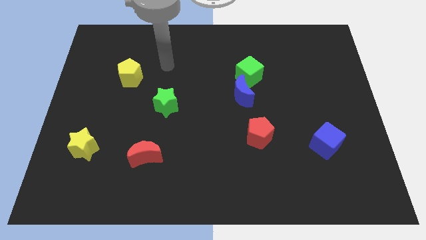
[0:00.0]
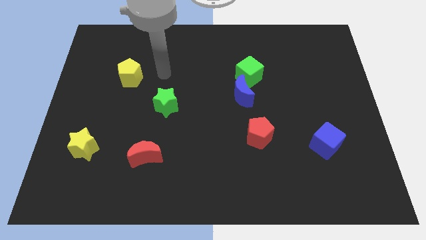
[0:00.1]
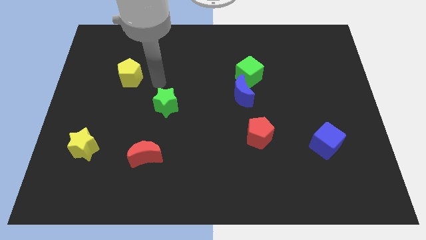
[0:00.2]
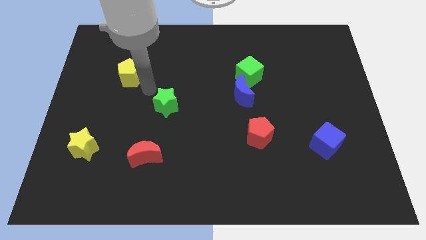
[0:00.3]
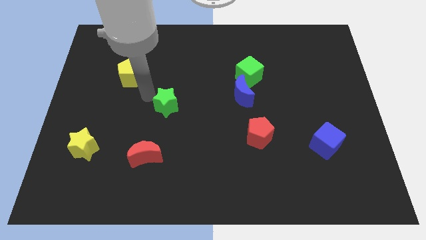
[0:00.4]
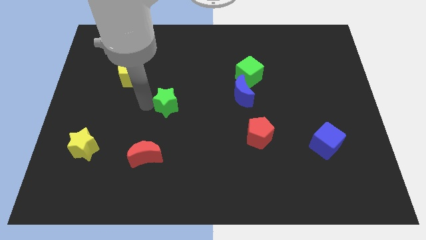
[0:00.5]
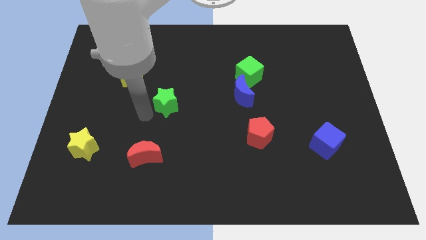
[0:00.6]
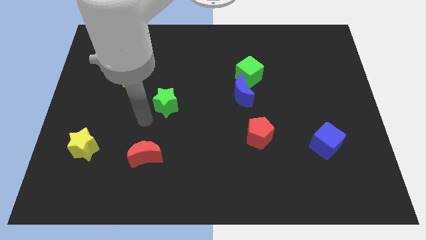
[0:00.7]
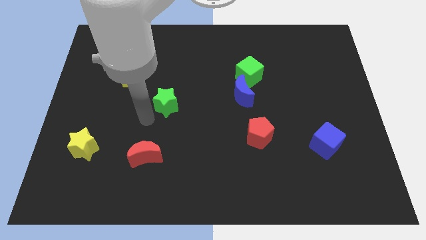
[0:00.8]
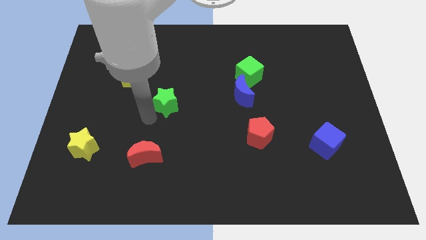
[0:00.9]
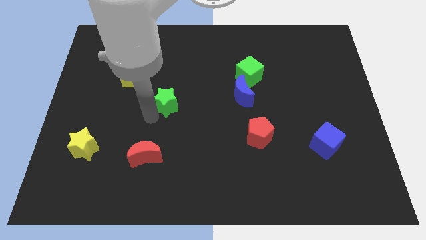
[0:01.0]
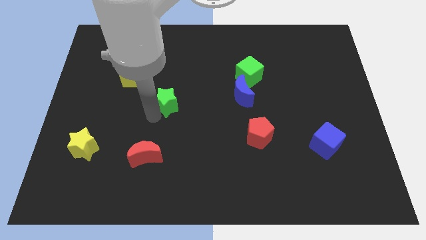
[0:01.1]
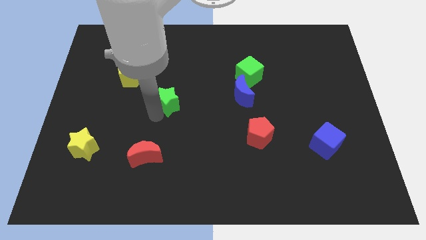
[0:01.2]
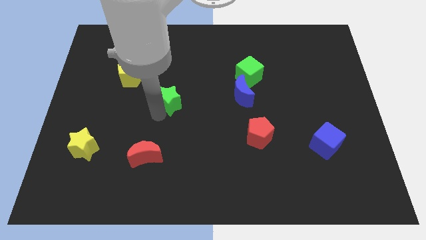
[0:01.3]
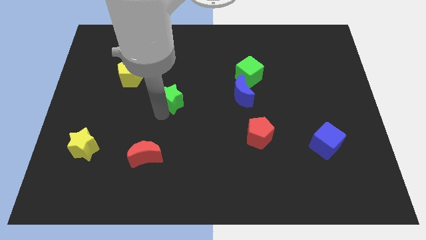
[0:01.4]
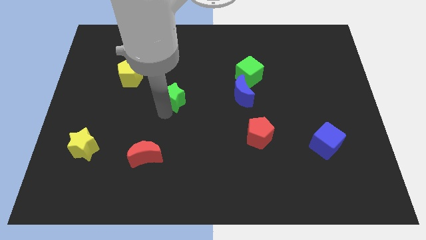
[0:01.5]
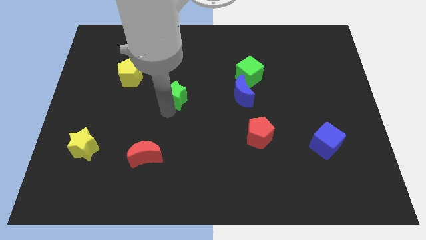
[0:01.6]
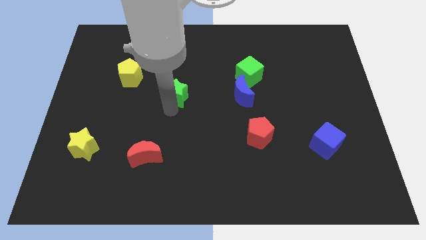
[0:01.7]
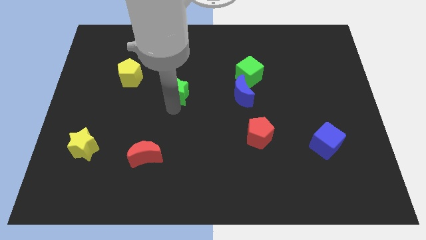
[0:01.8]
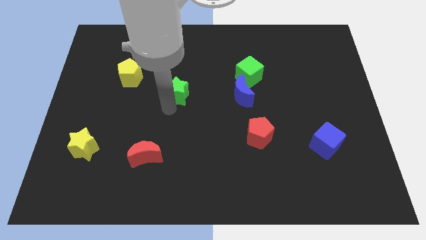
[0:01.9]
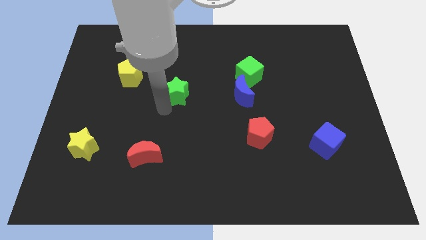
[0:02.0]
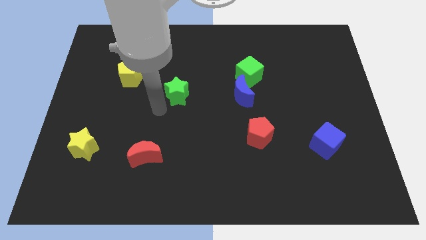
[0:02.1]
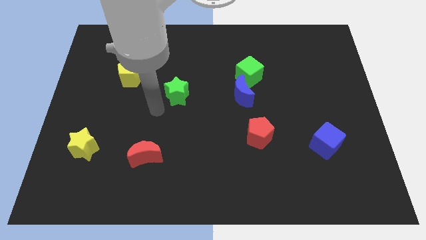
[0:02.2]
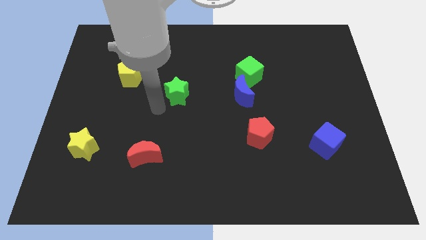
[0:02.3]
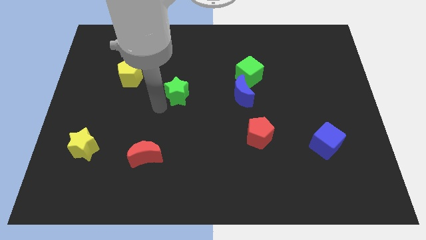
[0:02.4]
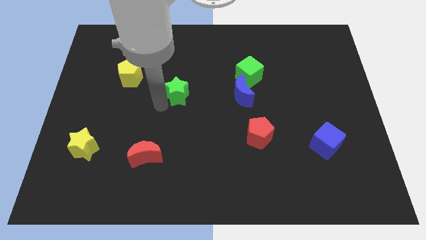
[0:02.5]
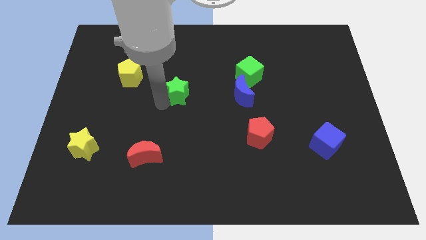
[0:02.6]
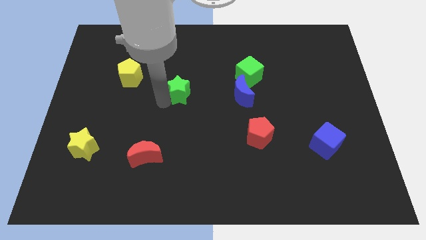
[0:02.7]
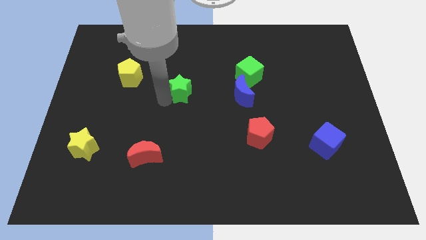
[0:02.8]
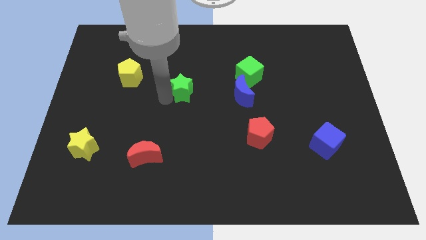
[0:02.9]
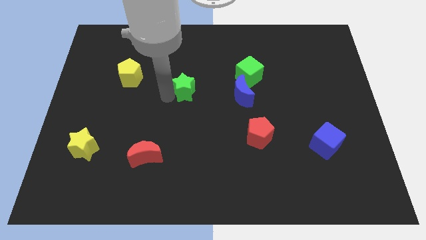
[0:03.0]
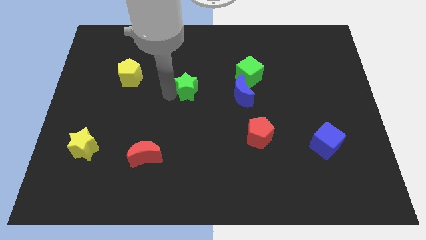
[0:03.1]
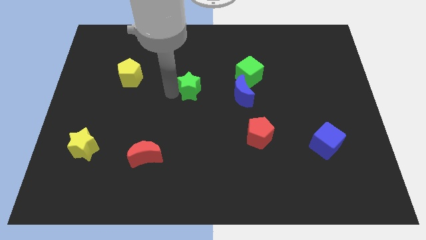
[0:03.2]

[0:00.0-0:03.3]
slide the green star slightly upwards and right diagonally

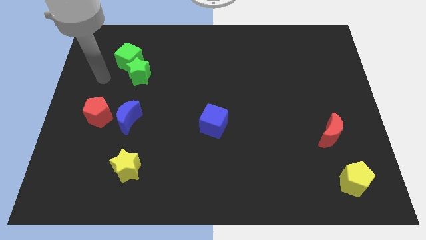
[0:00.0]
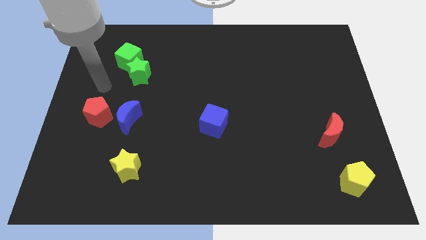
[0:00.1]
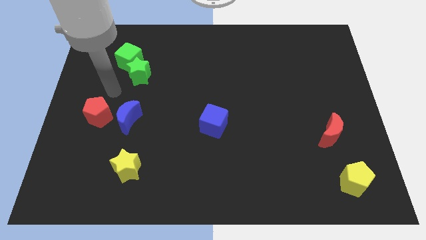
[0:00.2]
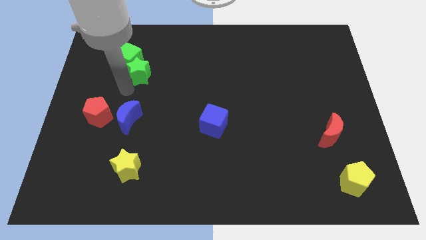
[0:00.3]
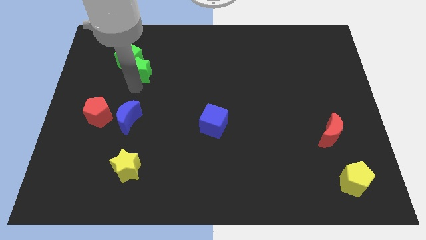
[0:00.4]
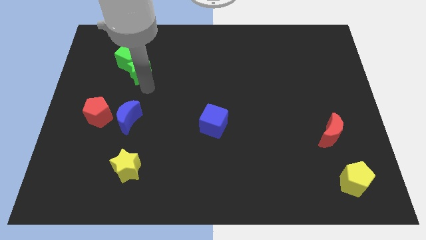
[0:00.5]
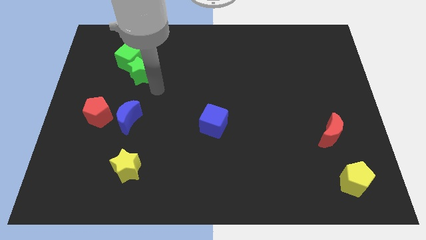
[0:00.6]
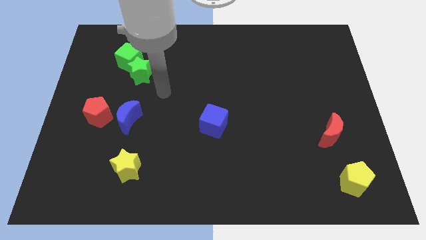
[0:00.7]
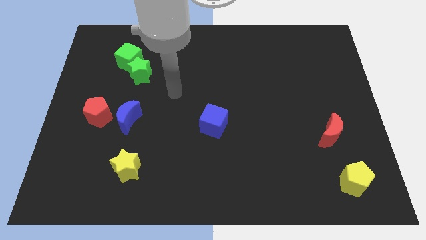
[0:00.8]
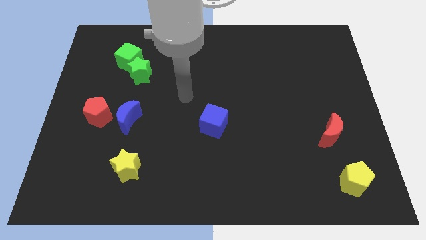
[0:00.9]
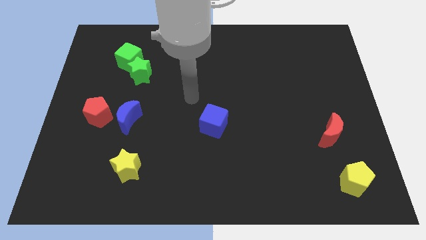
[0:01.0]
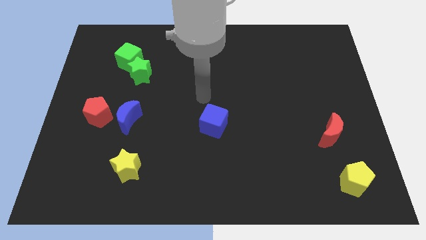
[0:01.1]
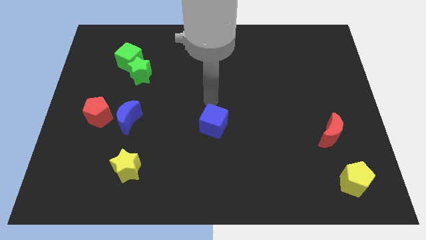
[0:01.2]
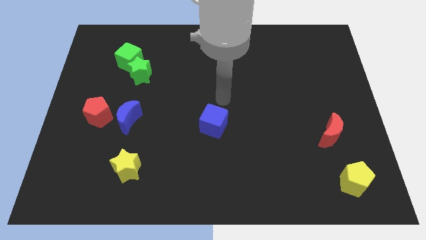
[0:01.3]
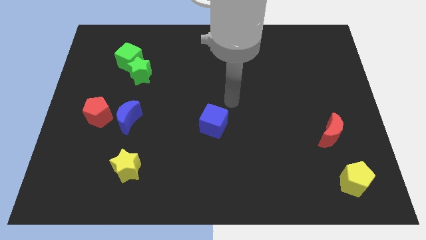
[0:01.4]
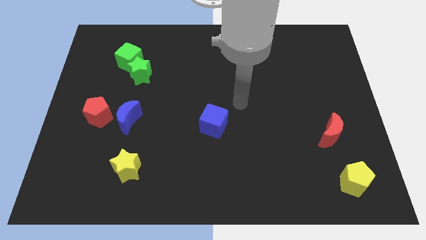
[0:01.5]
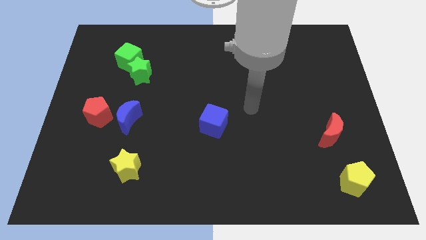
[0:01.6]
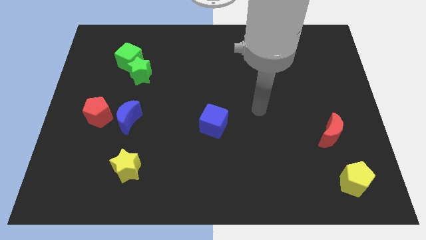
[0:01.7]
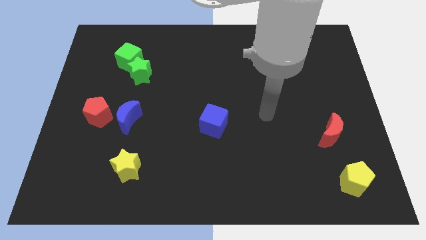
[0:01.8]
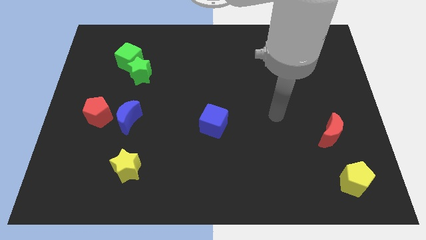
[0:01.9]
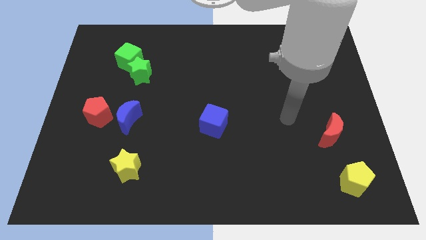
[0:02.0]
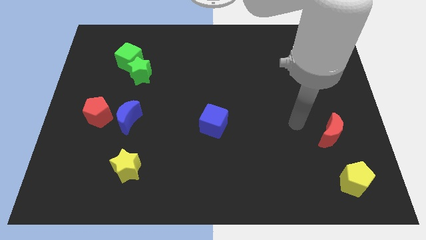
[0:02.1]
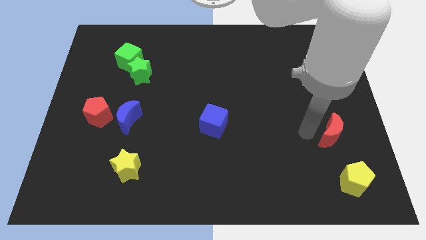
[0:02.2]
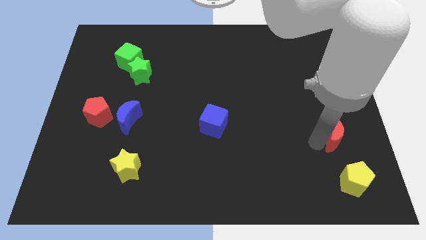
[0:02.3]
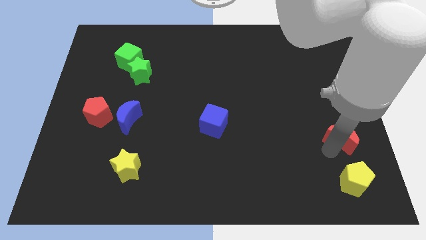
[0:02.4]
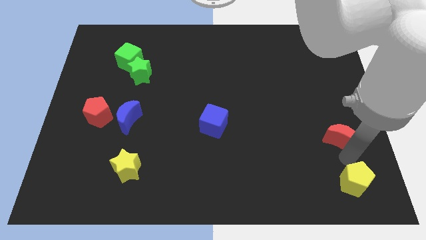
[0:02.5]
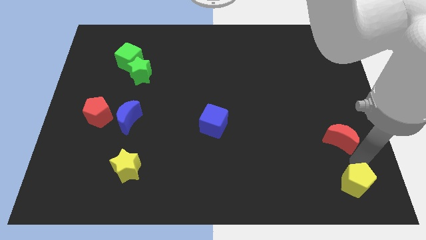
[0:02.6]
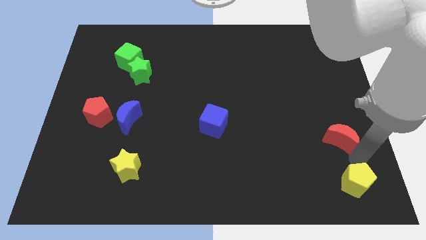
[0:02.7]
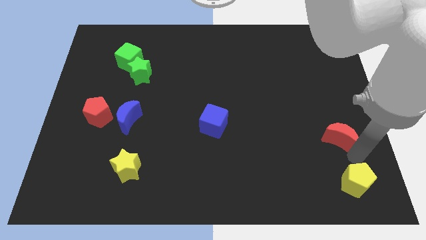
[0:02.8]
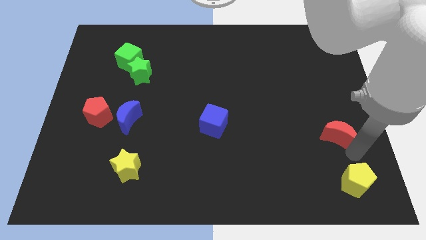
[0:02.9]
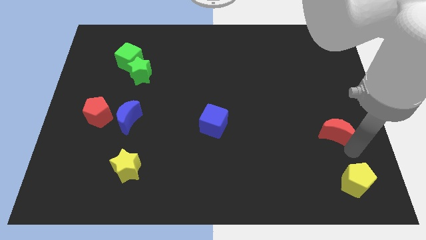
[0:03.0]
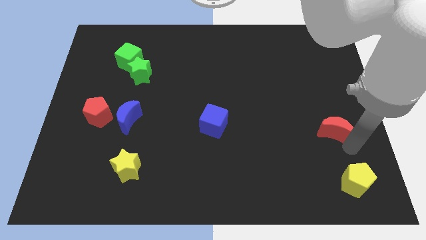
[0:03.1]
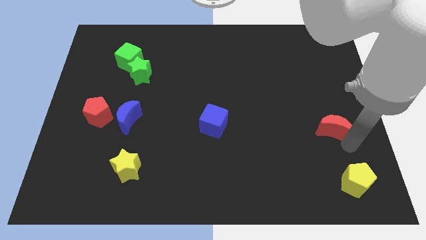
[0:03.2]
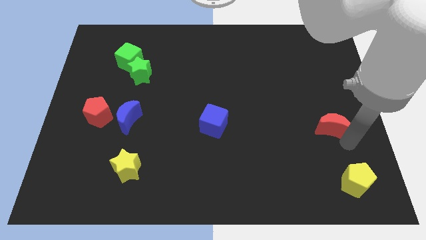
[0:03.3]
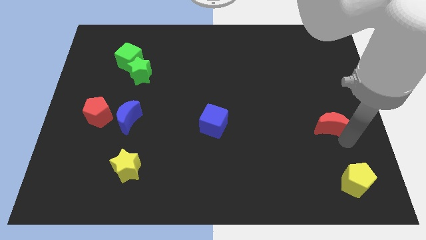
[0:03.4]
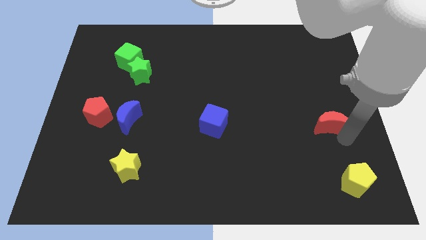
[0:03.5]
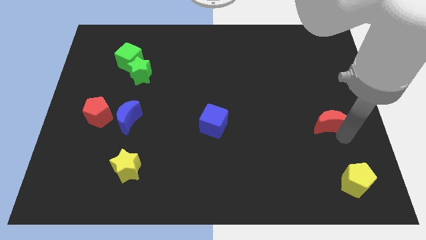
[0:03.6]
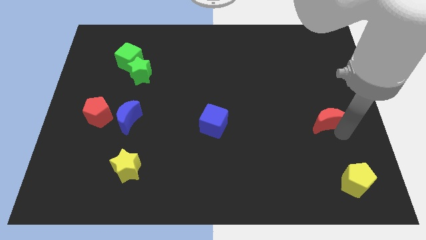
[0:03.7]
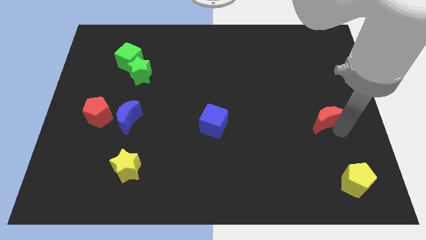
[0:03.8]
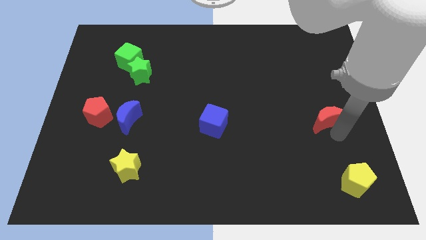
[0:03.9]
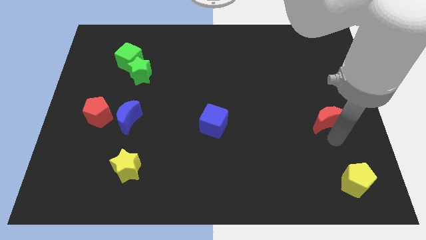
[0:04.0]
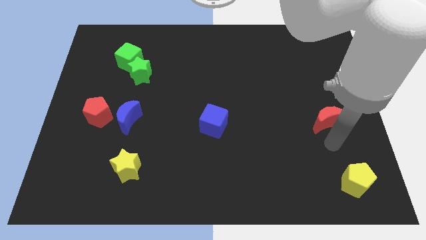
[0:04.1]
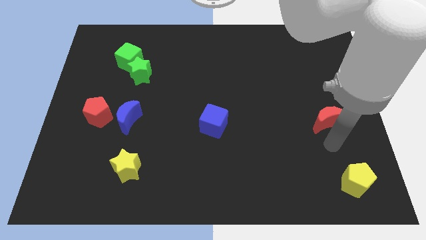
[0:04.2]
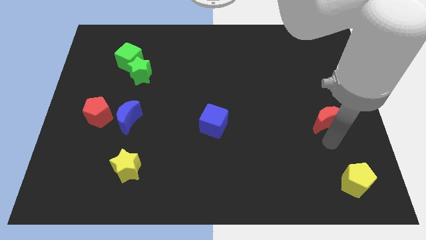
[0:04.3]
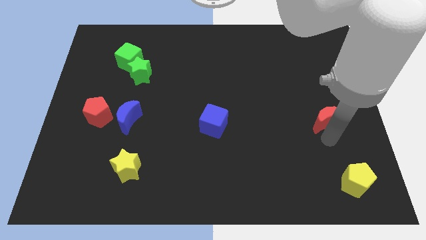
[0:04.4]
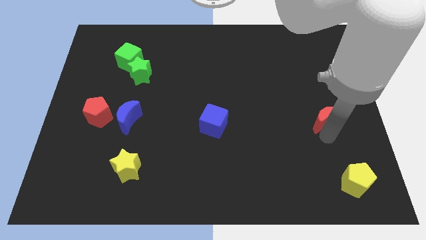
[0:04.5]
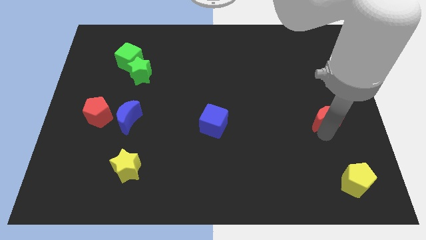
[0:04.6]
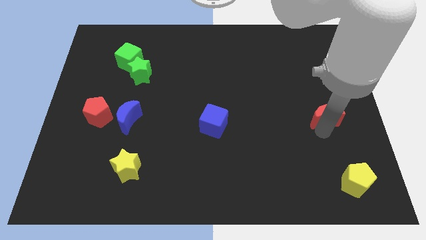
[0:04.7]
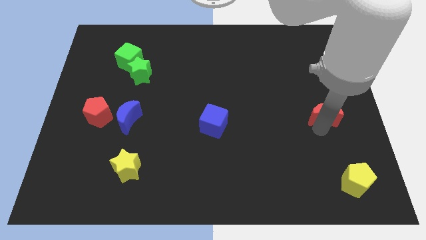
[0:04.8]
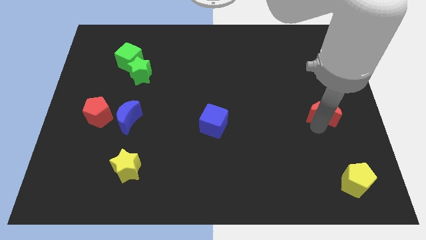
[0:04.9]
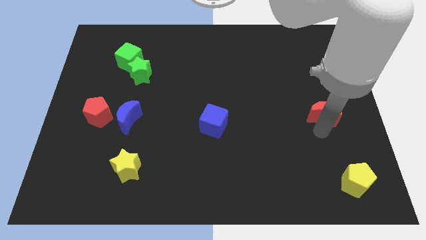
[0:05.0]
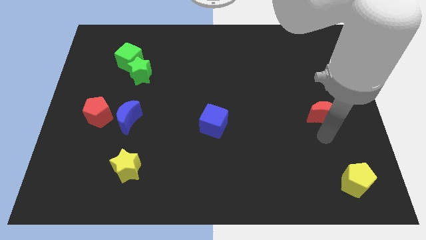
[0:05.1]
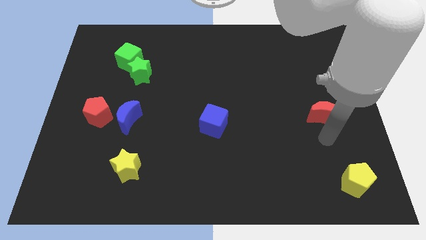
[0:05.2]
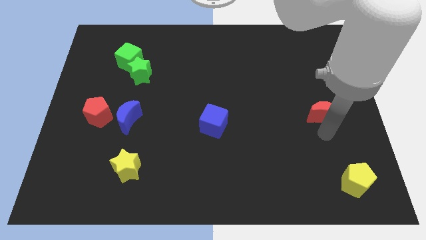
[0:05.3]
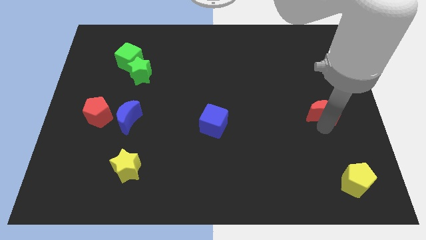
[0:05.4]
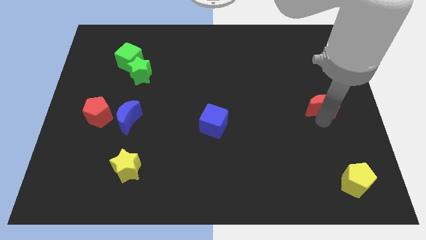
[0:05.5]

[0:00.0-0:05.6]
slightly push the red moon up
